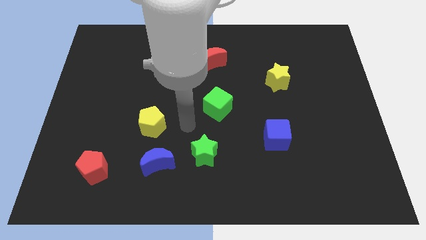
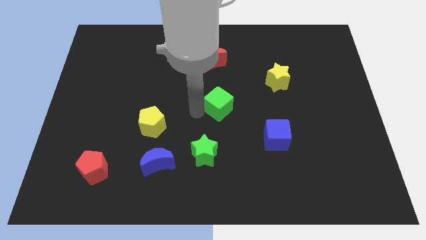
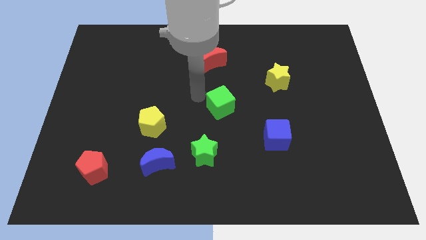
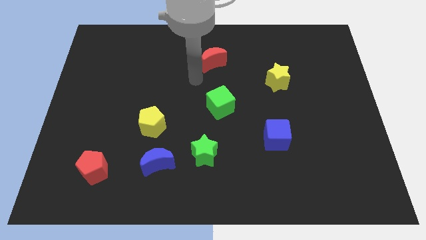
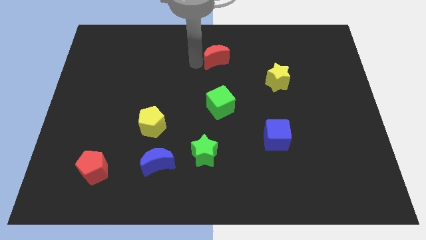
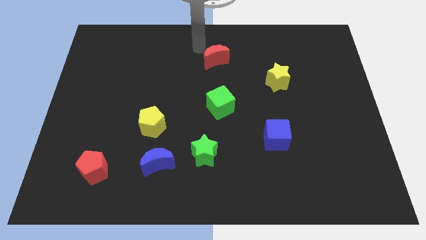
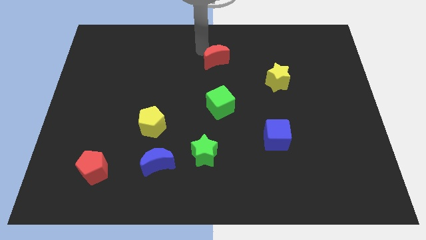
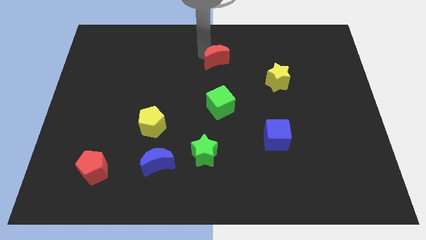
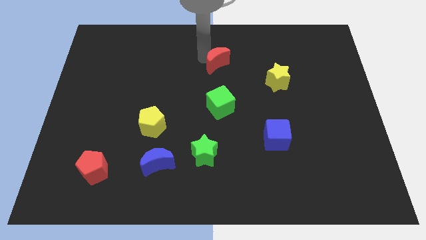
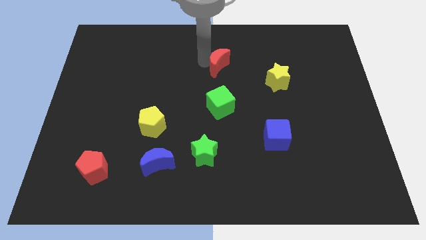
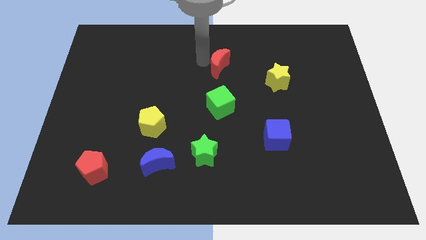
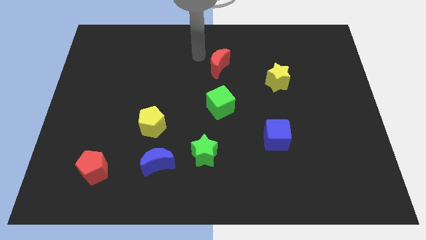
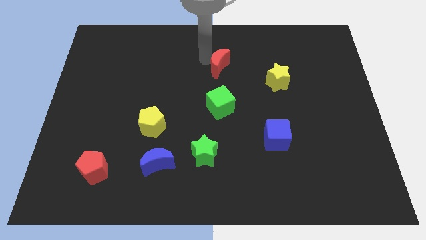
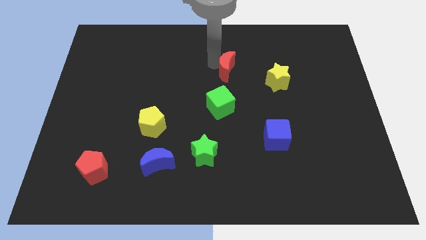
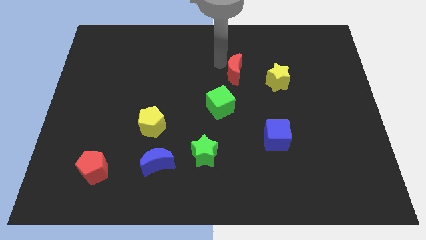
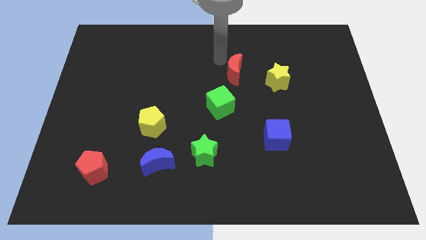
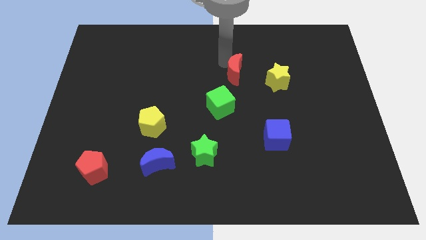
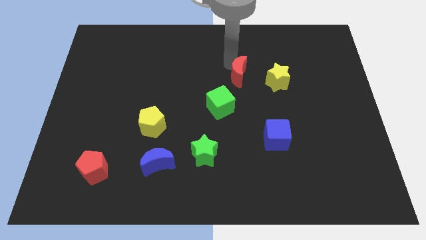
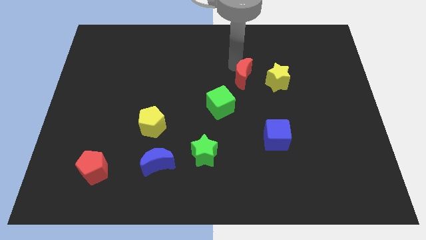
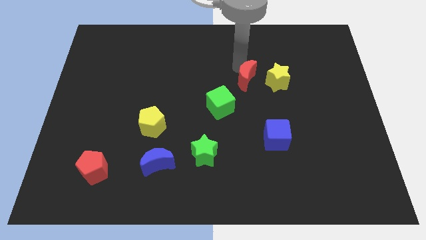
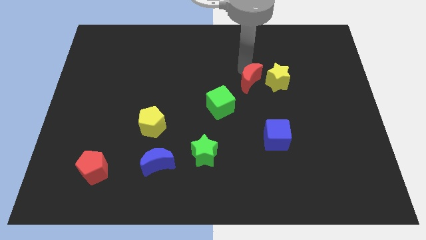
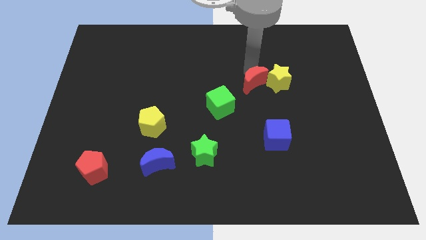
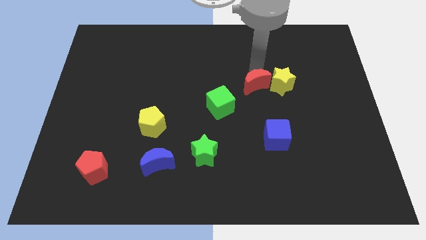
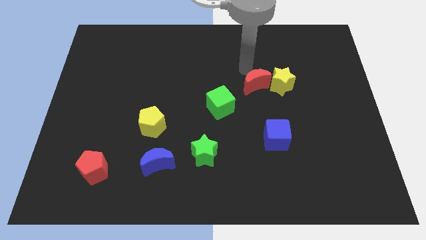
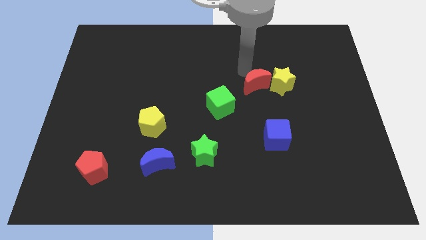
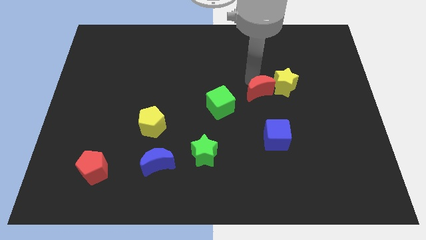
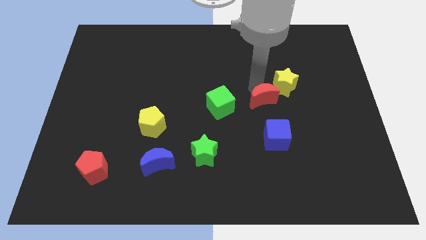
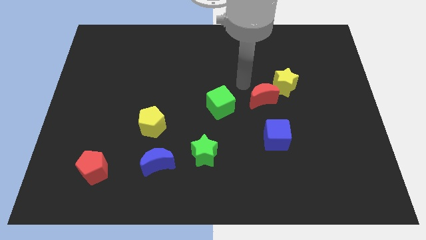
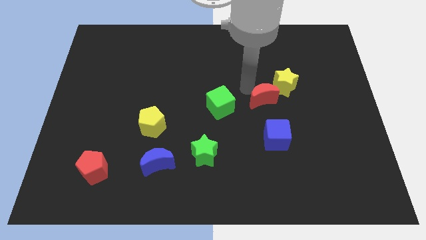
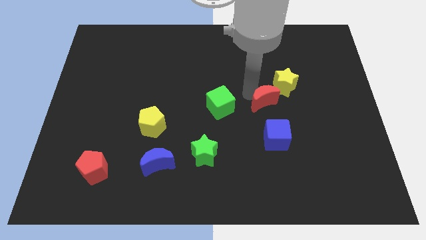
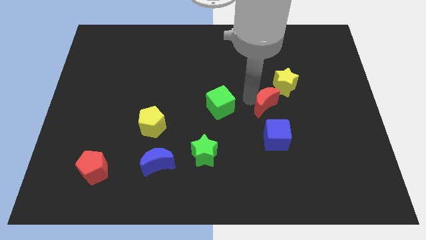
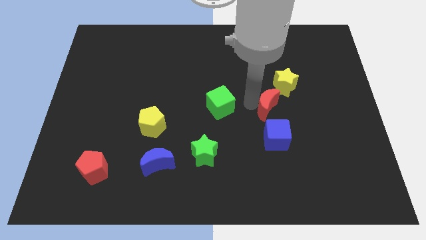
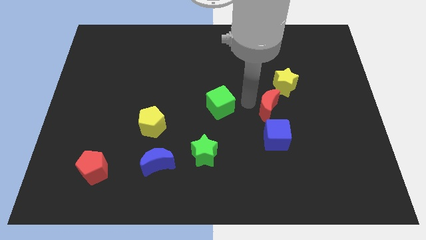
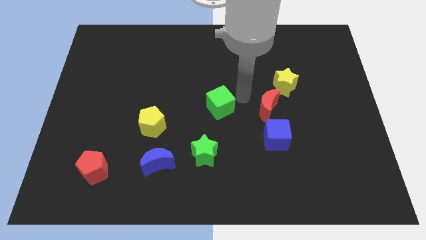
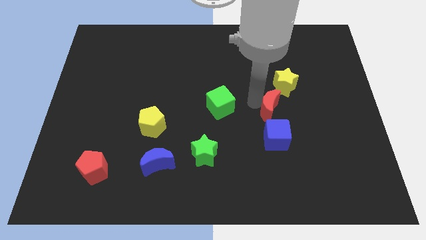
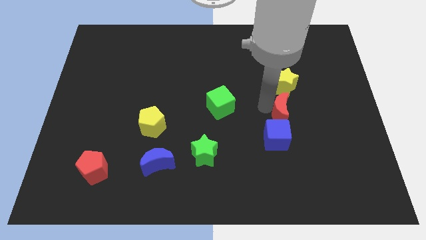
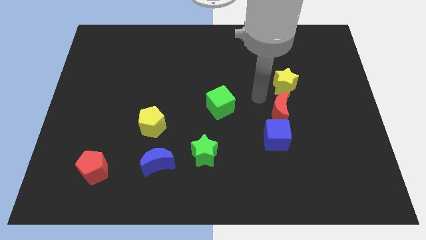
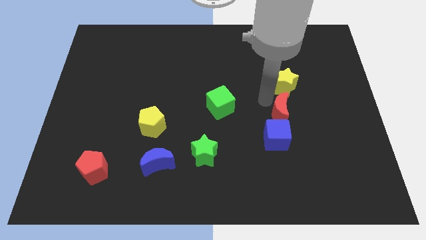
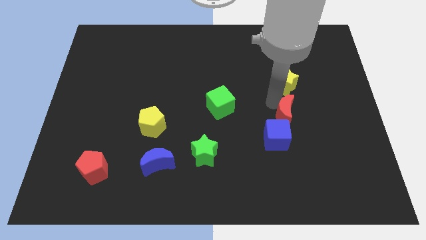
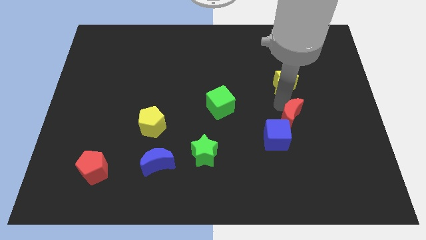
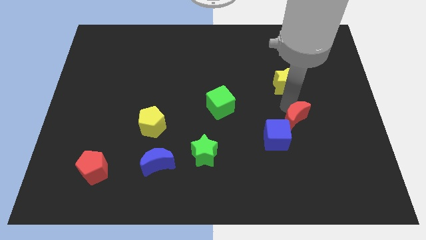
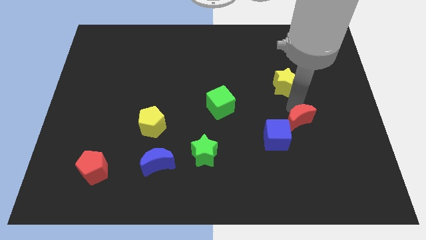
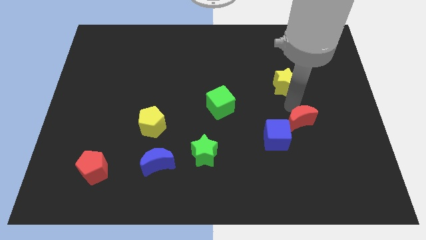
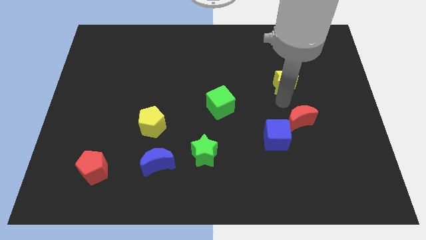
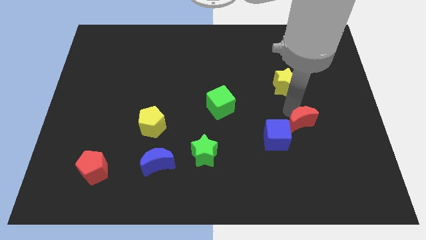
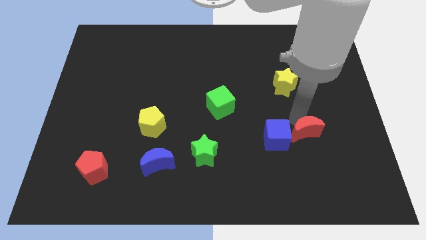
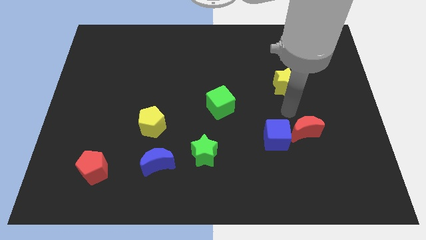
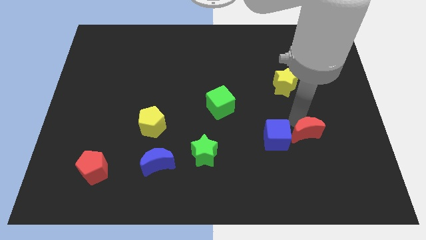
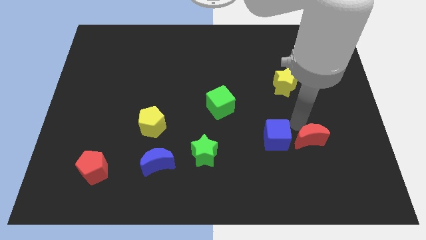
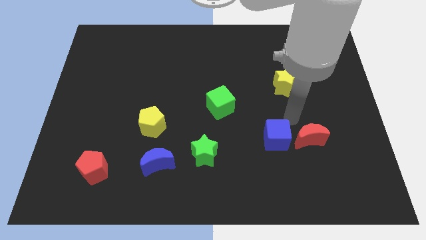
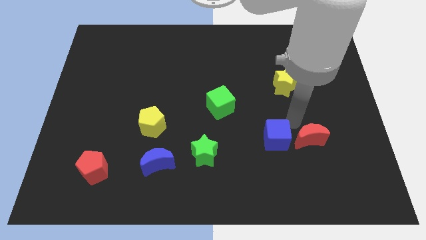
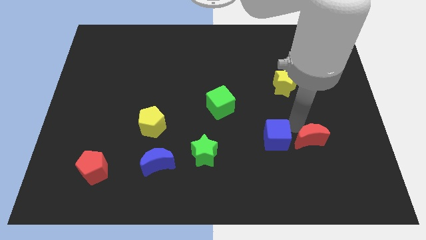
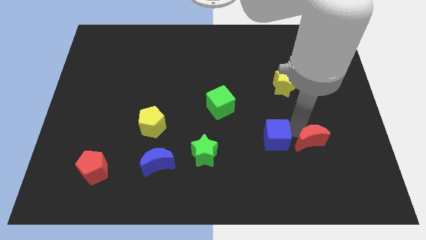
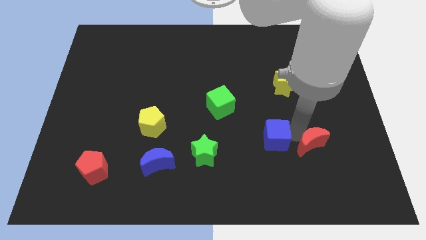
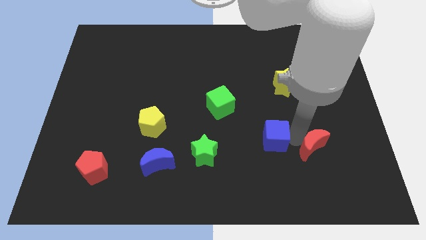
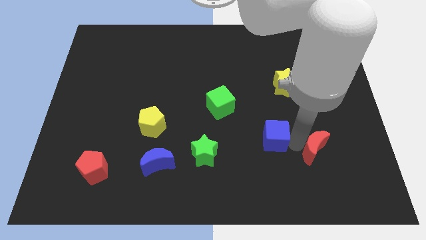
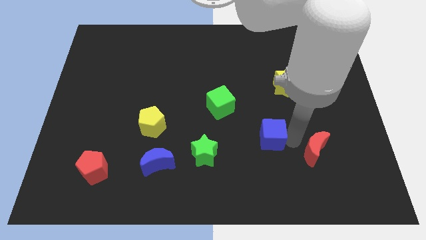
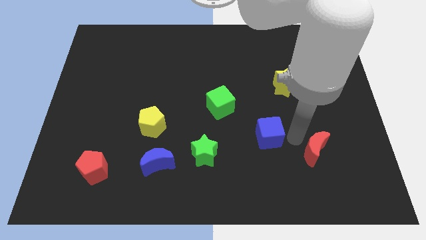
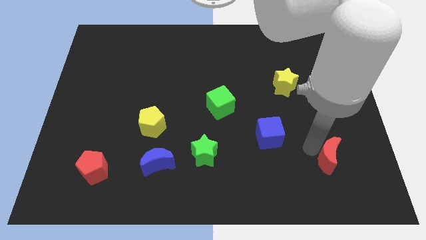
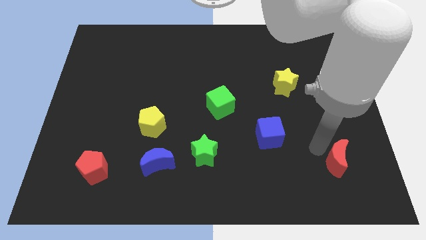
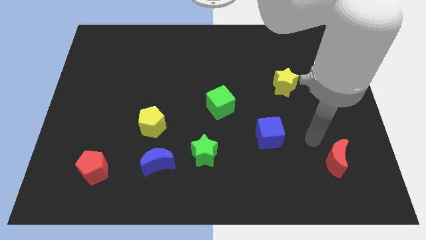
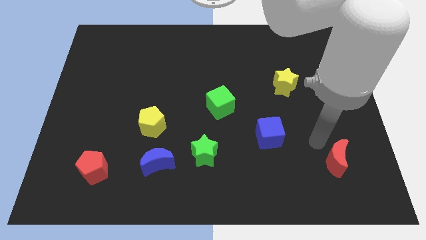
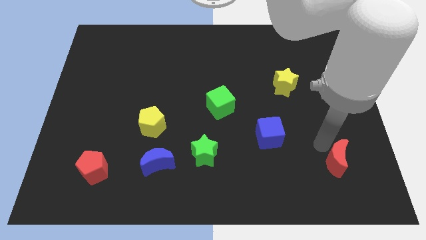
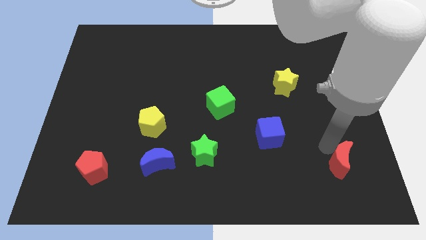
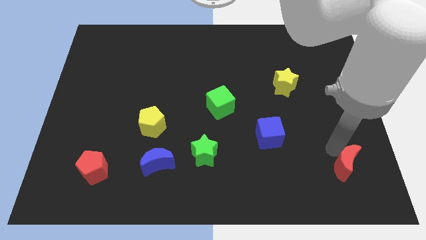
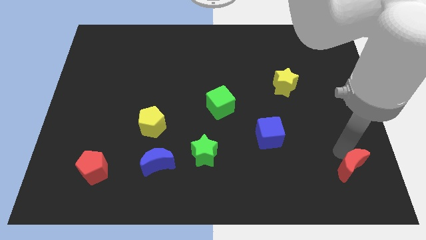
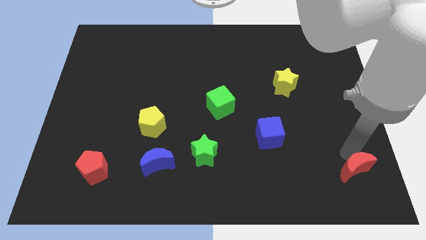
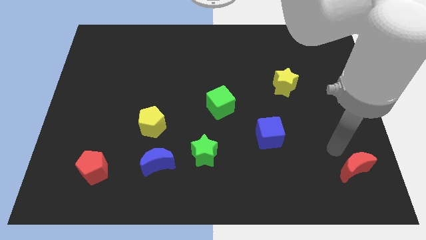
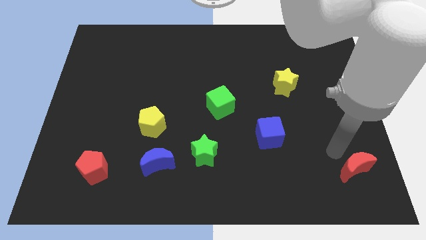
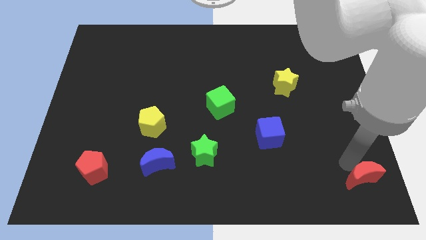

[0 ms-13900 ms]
slide the red moon to the bottom right of the board
